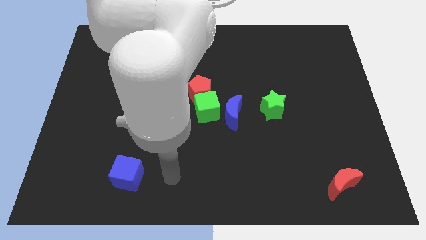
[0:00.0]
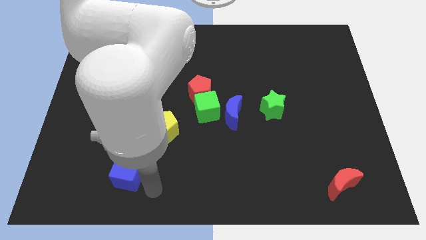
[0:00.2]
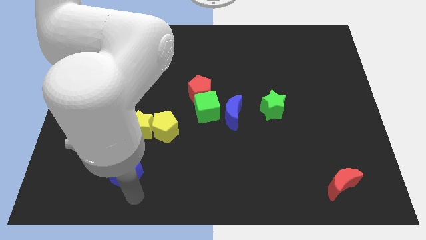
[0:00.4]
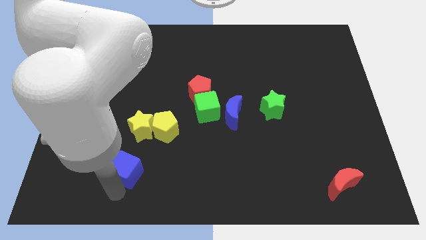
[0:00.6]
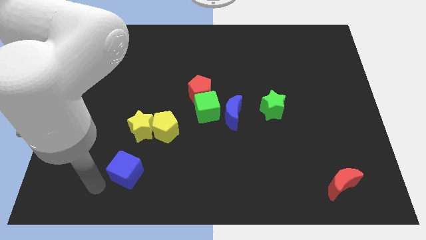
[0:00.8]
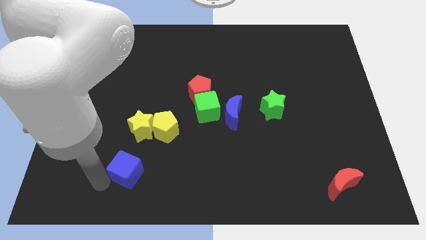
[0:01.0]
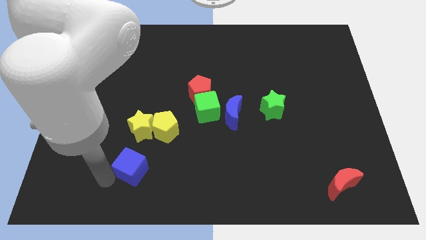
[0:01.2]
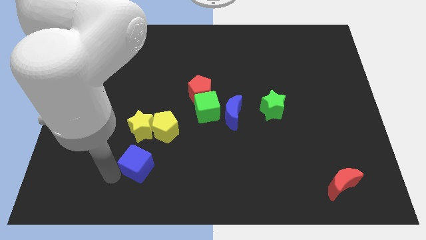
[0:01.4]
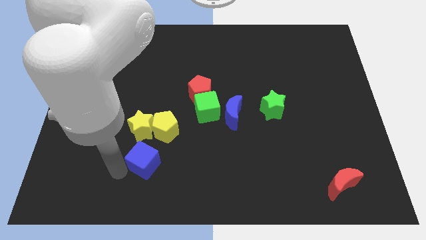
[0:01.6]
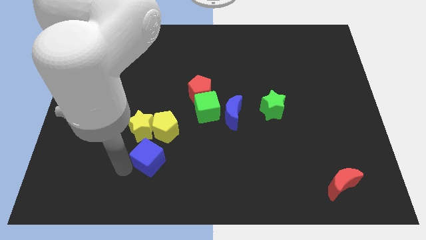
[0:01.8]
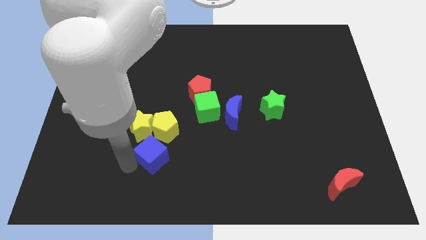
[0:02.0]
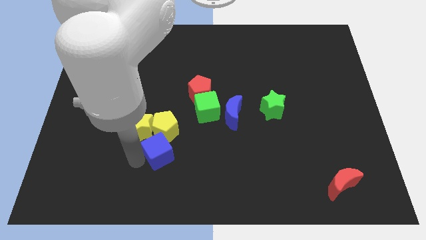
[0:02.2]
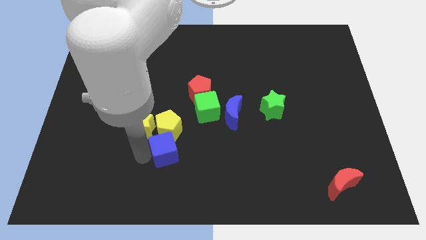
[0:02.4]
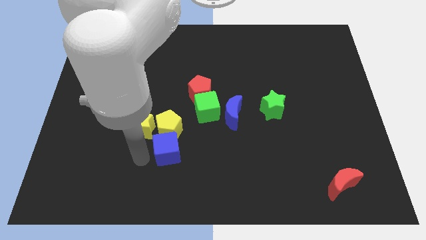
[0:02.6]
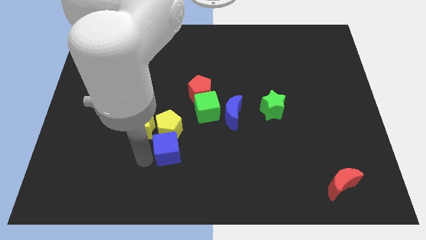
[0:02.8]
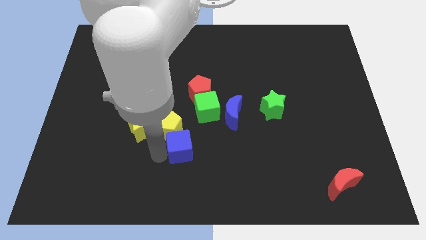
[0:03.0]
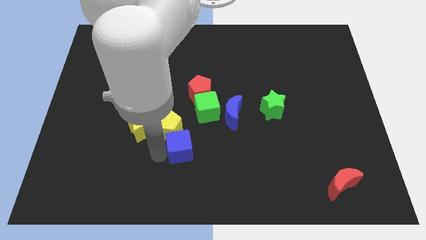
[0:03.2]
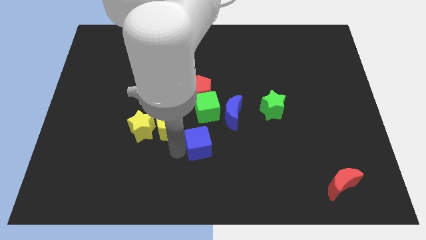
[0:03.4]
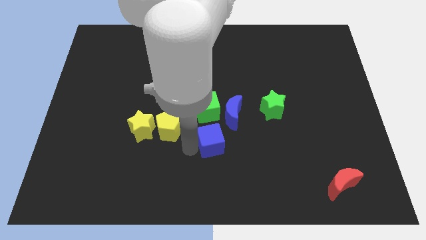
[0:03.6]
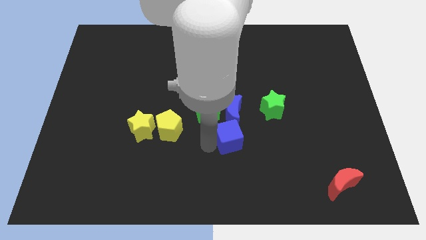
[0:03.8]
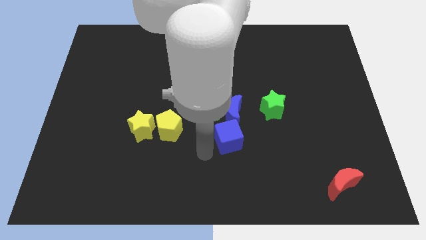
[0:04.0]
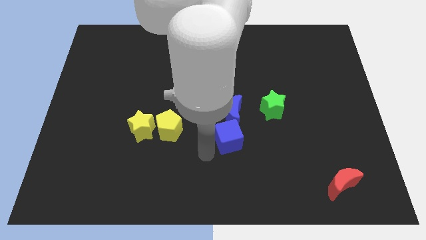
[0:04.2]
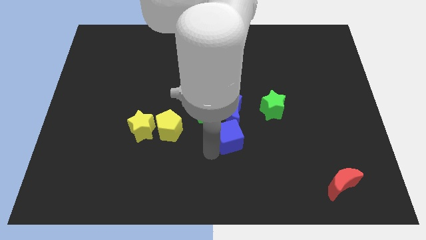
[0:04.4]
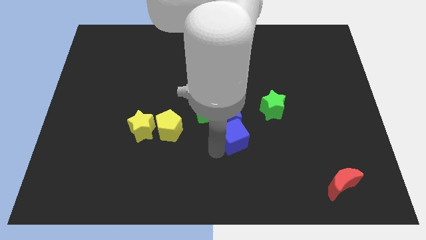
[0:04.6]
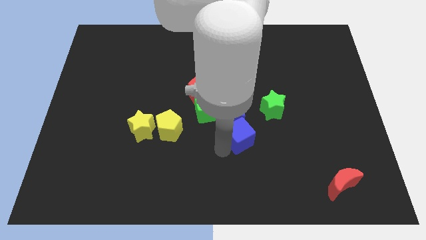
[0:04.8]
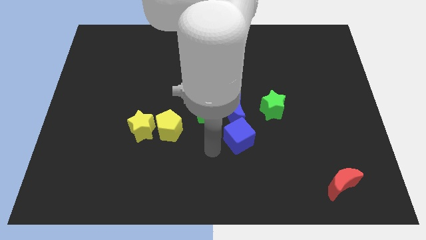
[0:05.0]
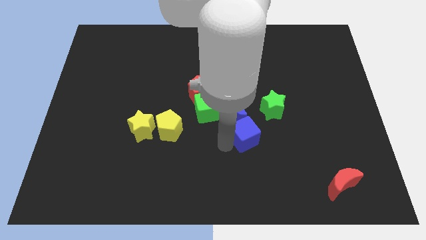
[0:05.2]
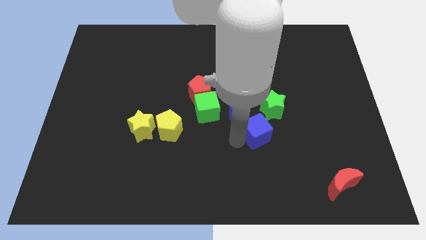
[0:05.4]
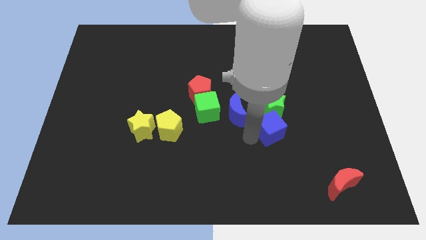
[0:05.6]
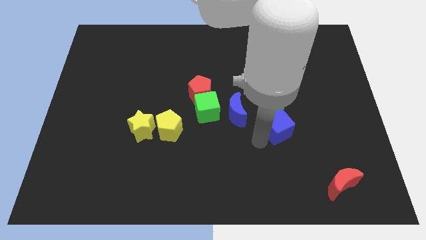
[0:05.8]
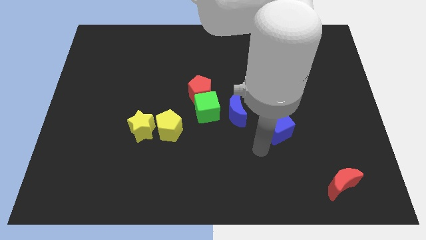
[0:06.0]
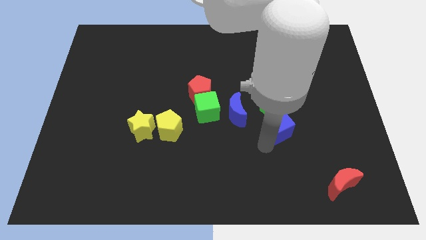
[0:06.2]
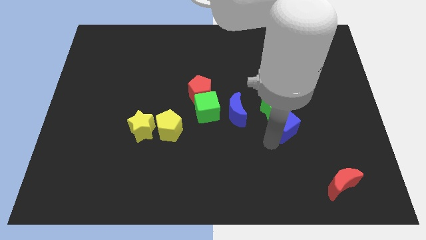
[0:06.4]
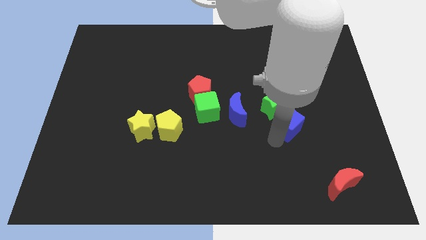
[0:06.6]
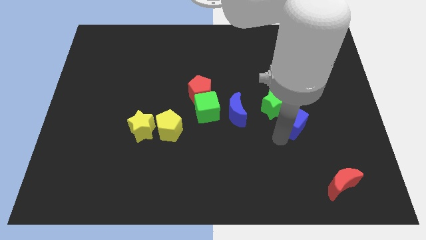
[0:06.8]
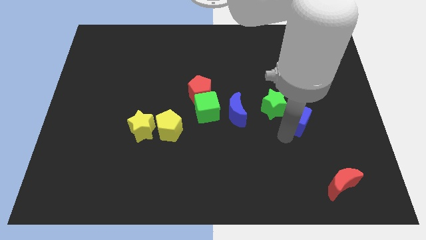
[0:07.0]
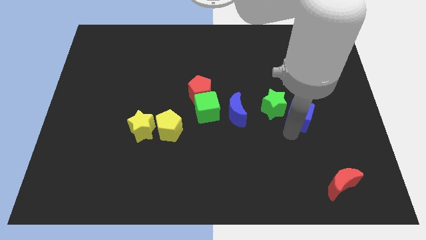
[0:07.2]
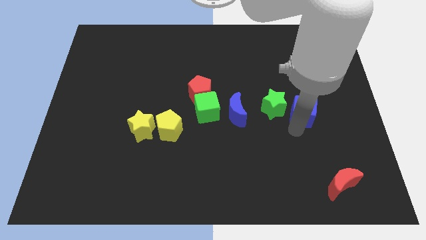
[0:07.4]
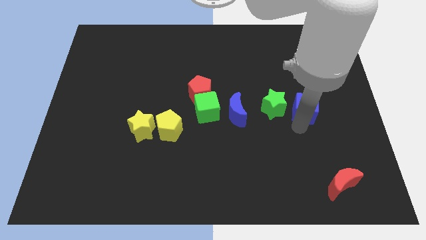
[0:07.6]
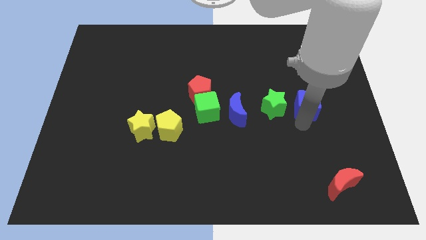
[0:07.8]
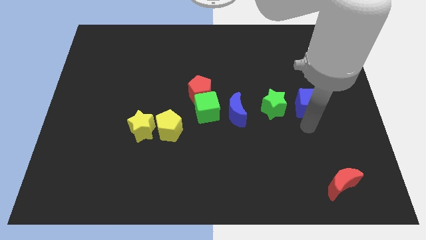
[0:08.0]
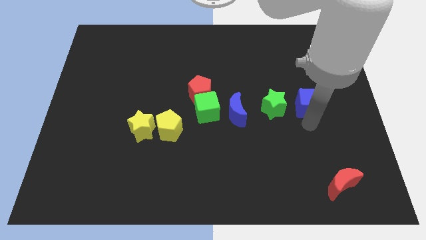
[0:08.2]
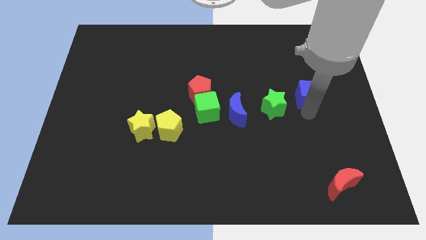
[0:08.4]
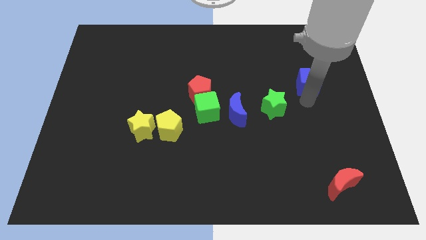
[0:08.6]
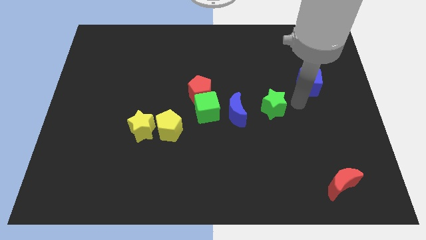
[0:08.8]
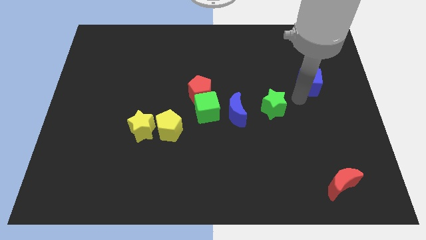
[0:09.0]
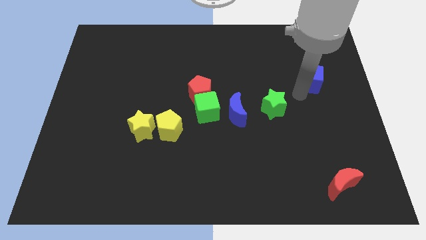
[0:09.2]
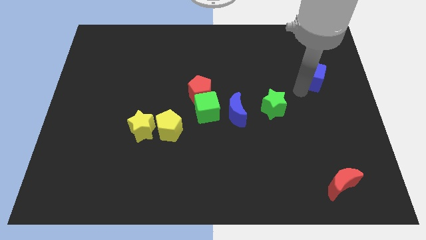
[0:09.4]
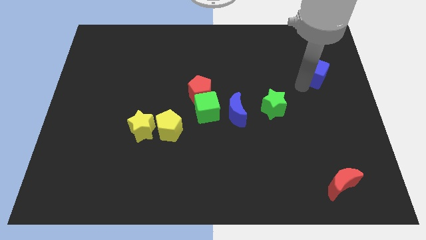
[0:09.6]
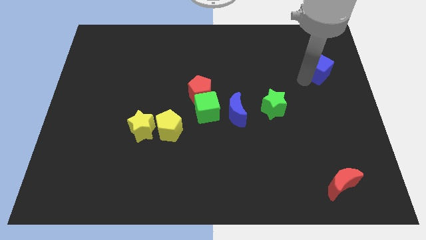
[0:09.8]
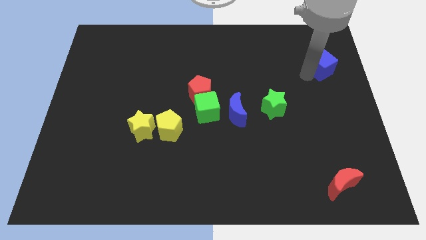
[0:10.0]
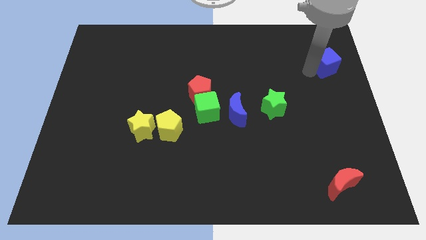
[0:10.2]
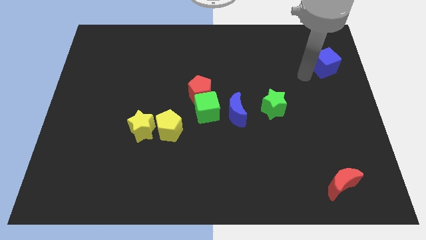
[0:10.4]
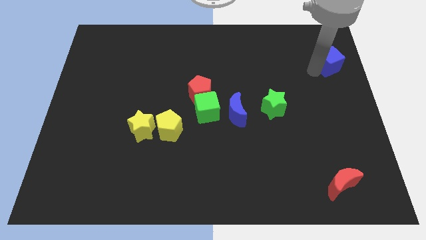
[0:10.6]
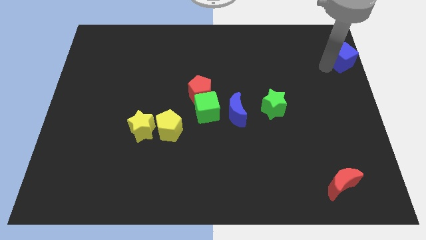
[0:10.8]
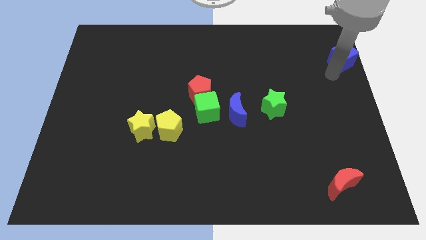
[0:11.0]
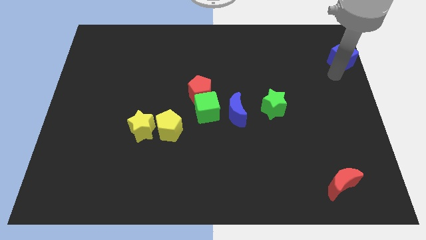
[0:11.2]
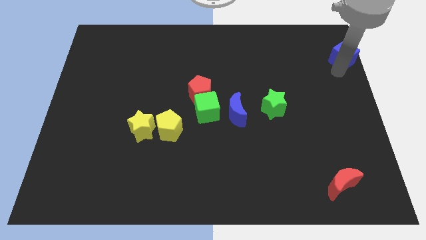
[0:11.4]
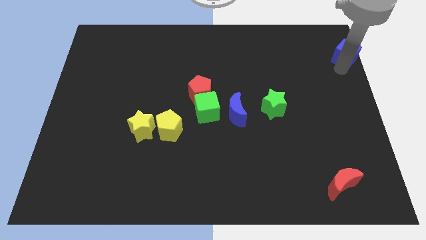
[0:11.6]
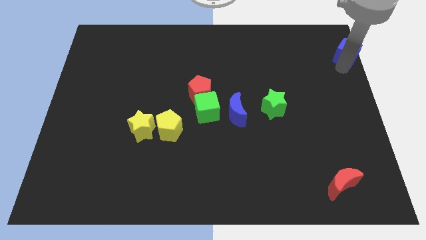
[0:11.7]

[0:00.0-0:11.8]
slide the blue cube to the top right of the board

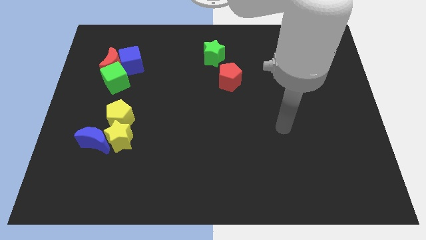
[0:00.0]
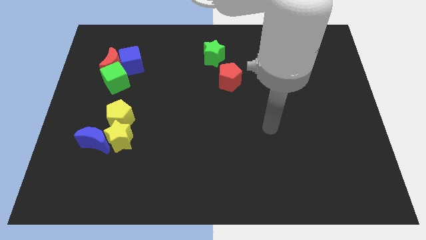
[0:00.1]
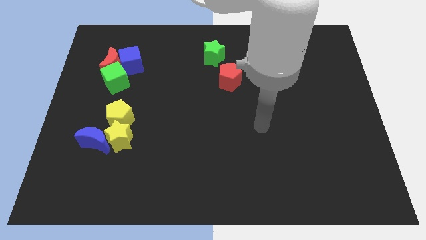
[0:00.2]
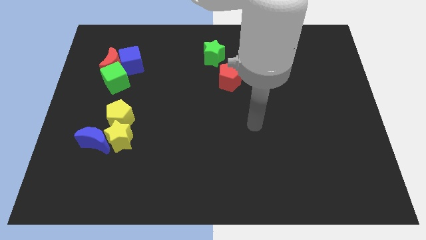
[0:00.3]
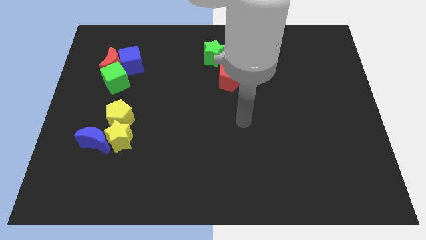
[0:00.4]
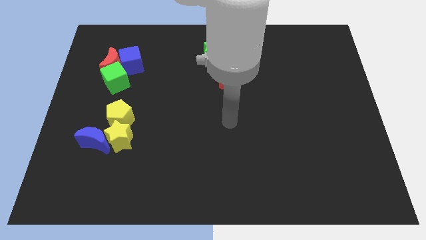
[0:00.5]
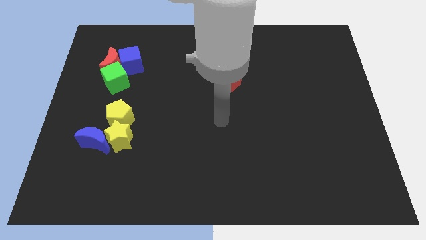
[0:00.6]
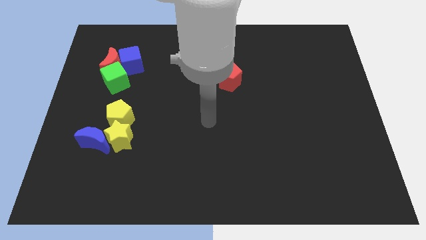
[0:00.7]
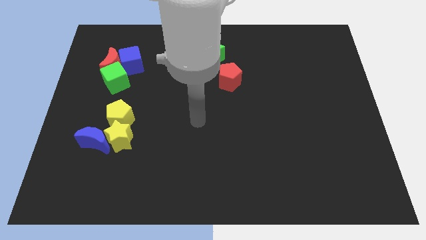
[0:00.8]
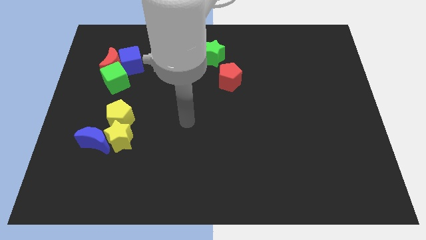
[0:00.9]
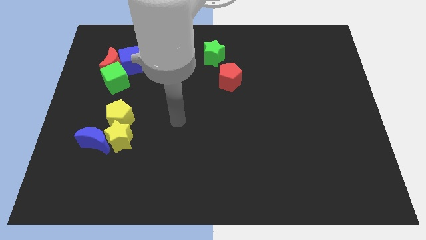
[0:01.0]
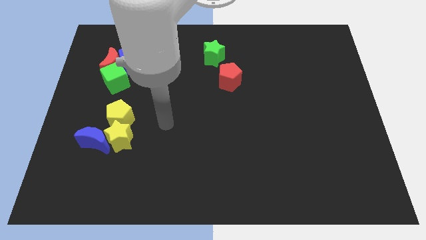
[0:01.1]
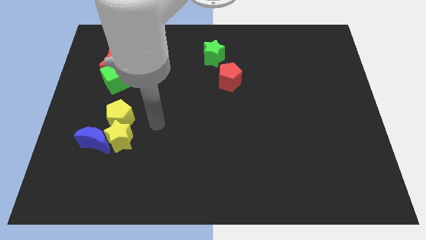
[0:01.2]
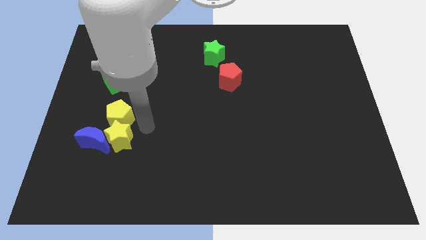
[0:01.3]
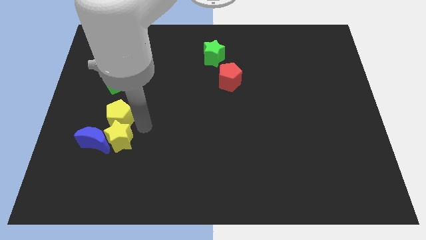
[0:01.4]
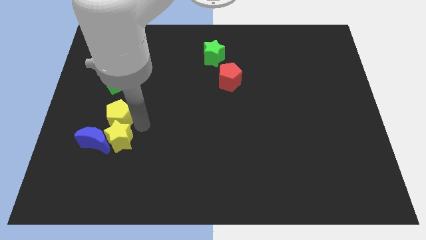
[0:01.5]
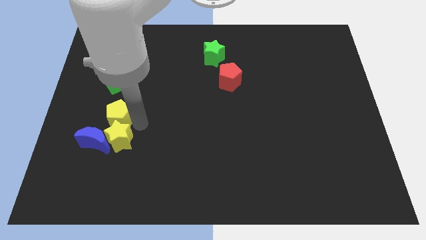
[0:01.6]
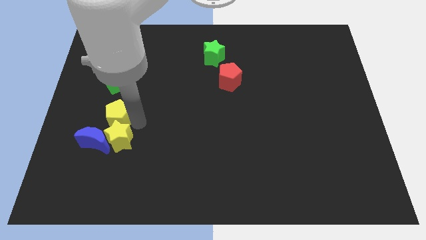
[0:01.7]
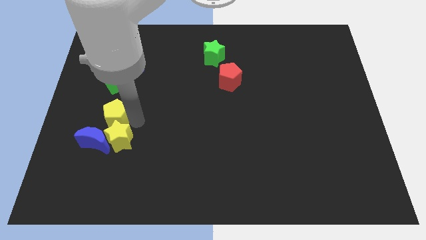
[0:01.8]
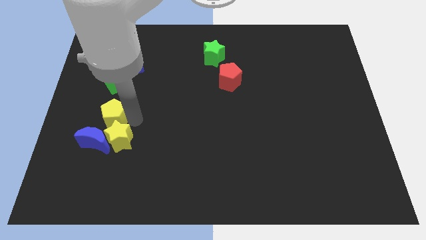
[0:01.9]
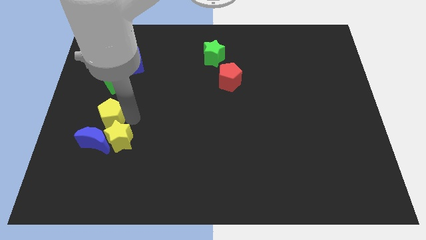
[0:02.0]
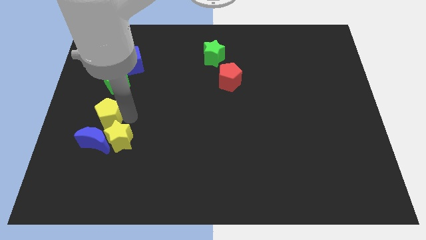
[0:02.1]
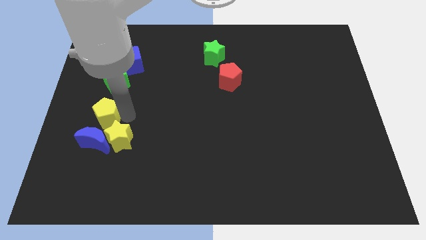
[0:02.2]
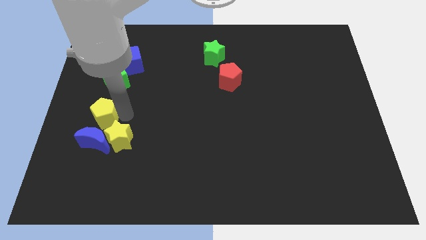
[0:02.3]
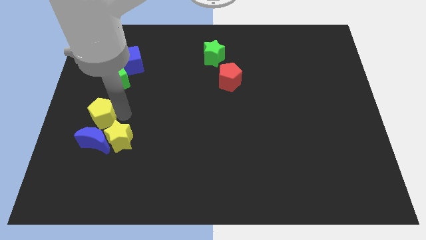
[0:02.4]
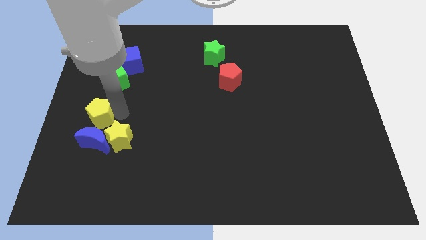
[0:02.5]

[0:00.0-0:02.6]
slide the yellow pentagon to the left side of the board
